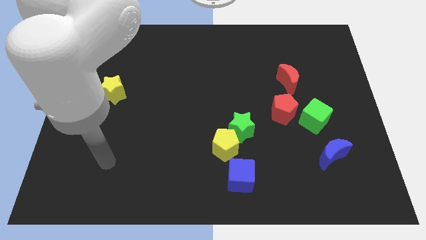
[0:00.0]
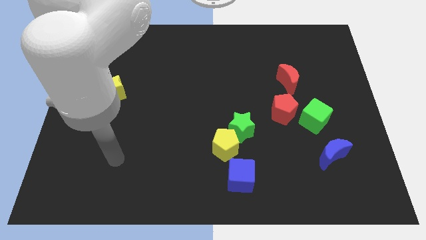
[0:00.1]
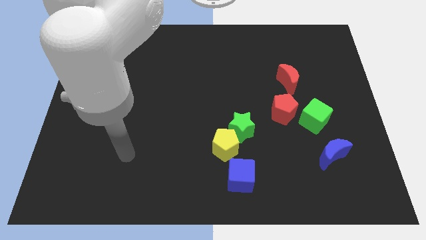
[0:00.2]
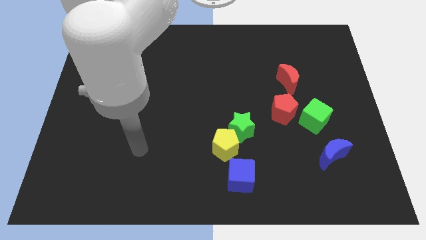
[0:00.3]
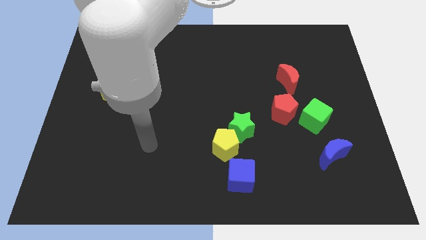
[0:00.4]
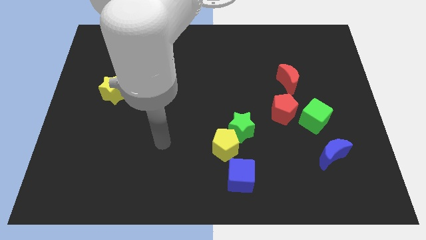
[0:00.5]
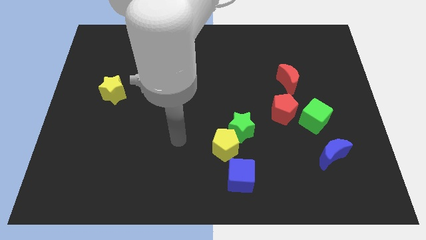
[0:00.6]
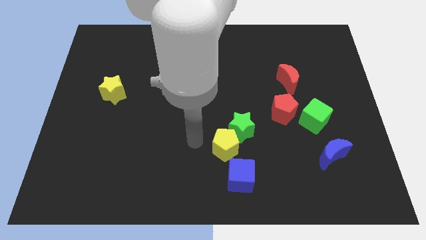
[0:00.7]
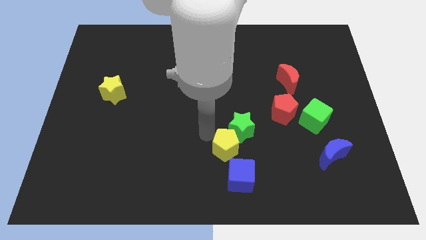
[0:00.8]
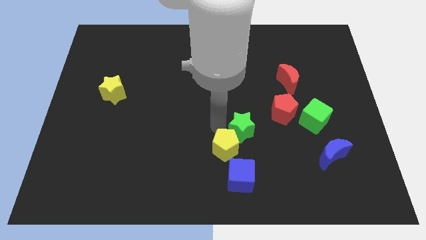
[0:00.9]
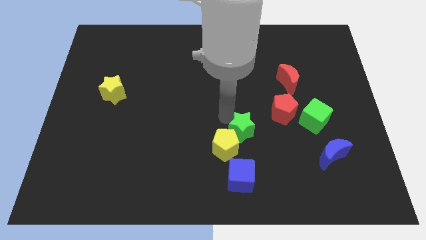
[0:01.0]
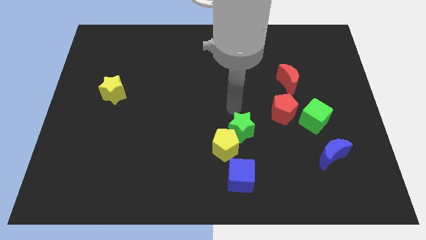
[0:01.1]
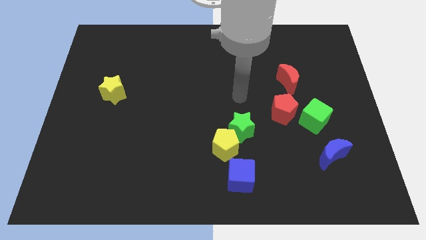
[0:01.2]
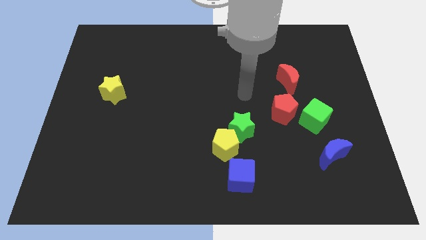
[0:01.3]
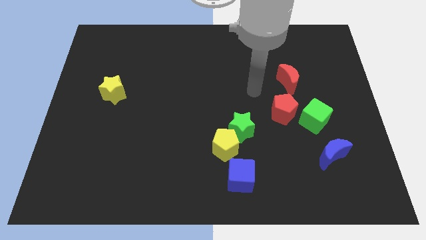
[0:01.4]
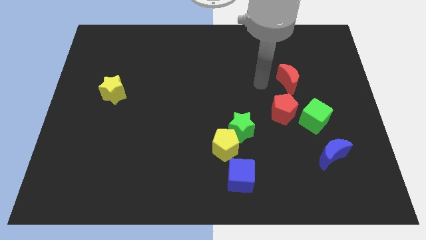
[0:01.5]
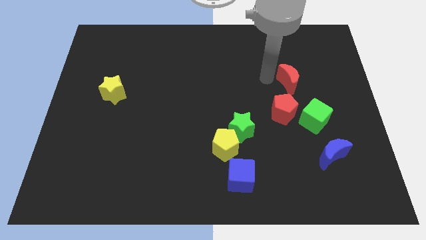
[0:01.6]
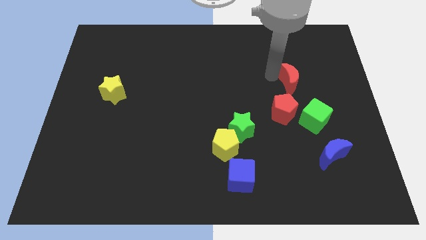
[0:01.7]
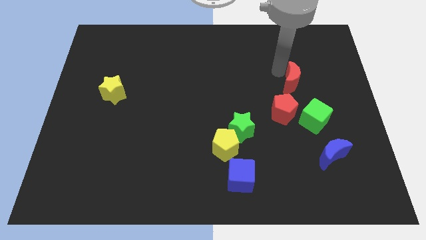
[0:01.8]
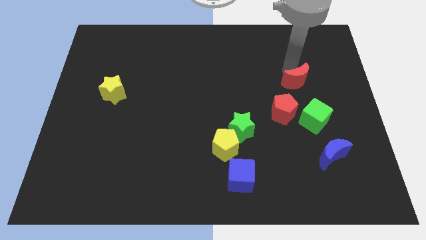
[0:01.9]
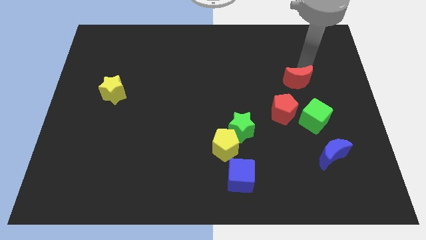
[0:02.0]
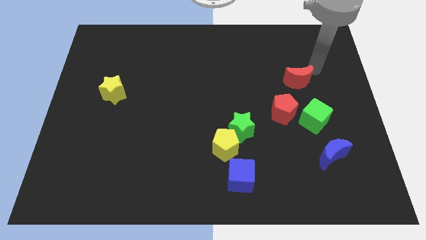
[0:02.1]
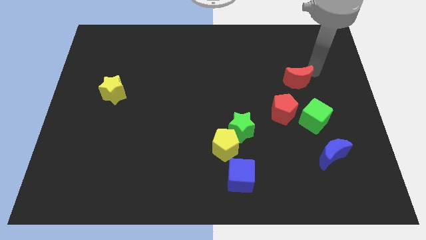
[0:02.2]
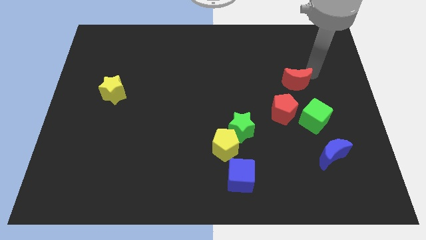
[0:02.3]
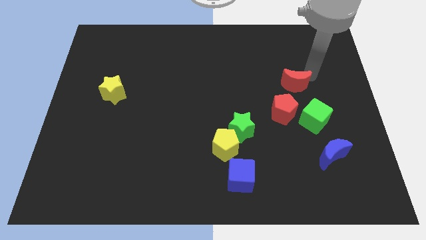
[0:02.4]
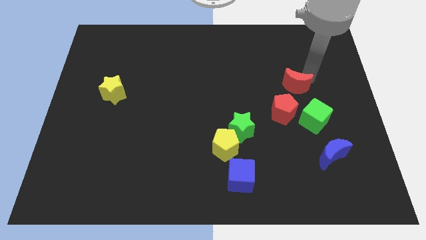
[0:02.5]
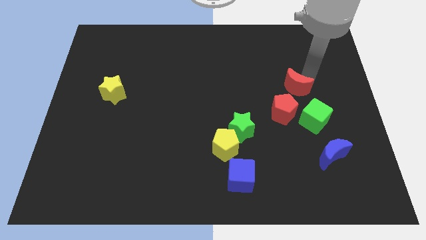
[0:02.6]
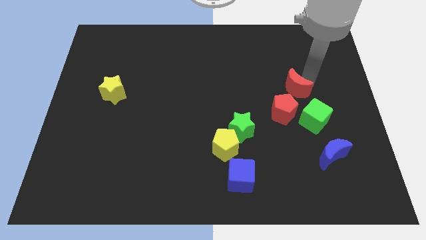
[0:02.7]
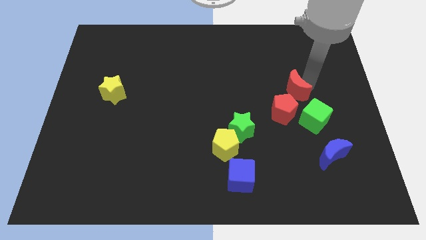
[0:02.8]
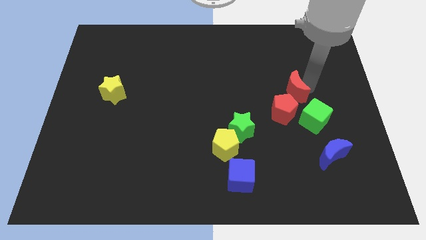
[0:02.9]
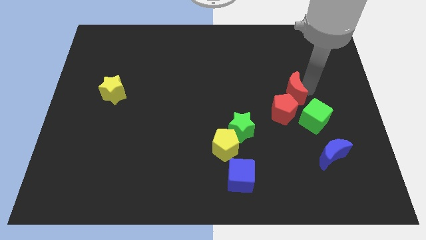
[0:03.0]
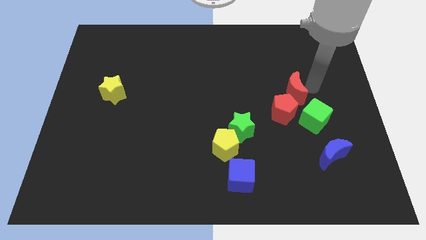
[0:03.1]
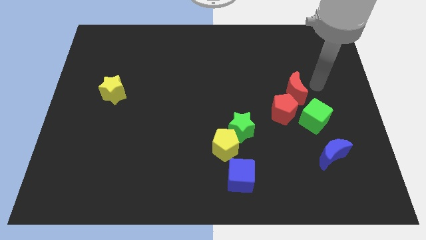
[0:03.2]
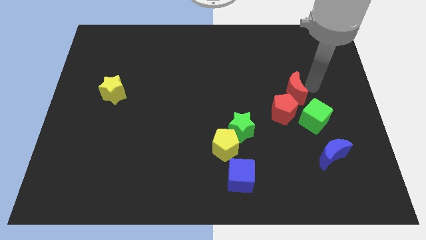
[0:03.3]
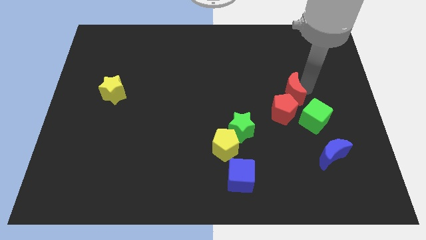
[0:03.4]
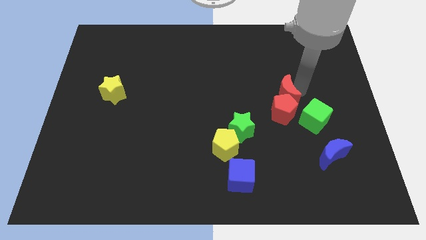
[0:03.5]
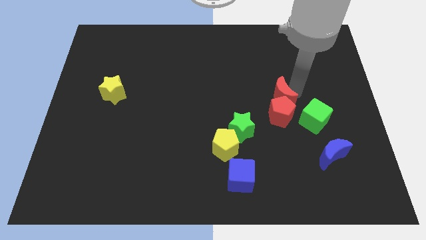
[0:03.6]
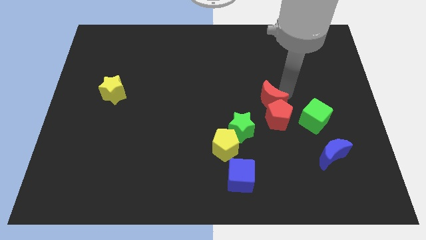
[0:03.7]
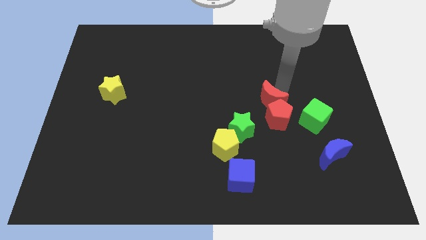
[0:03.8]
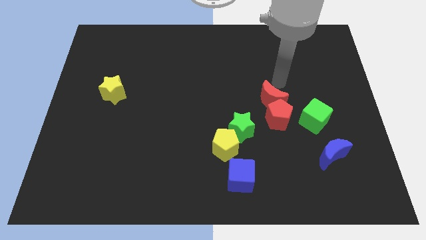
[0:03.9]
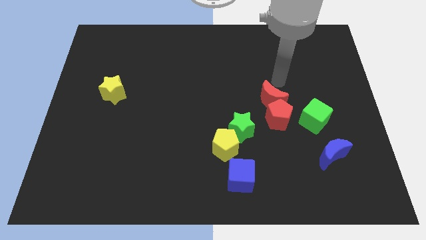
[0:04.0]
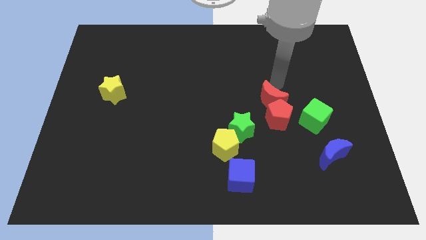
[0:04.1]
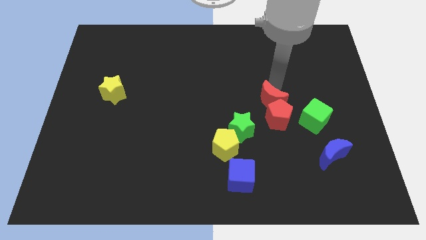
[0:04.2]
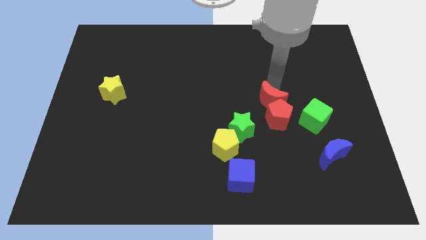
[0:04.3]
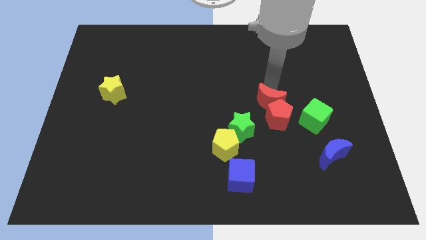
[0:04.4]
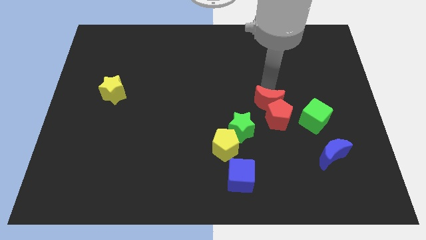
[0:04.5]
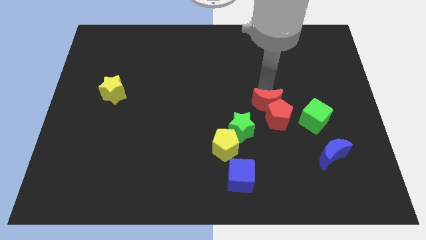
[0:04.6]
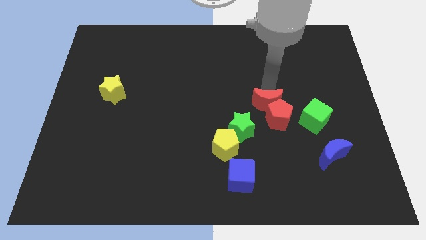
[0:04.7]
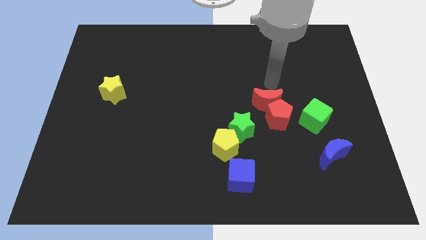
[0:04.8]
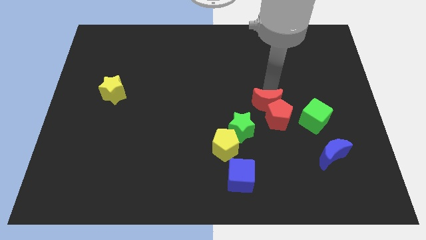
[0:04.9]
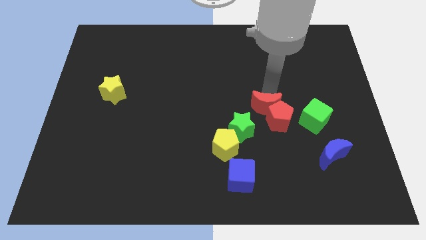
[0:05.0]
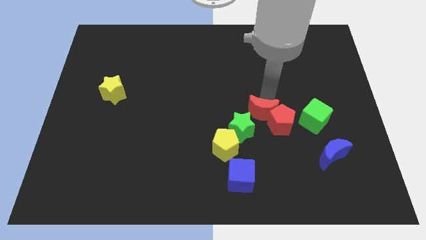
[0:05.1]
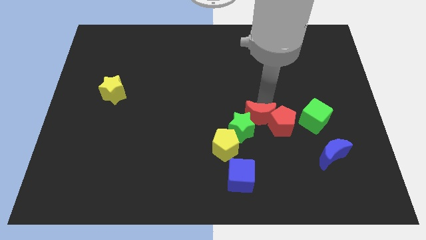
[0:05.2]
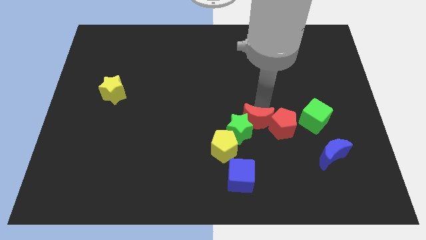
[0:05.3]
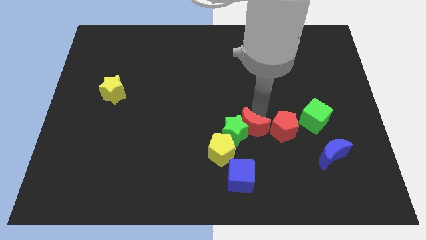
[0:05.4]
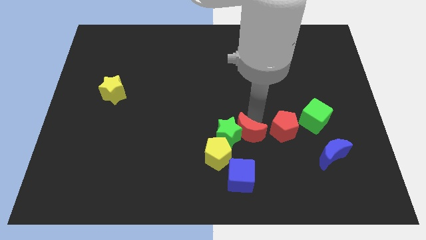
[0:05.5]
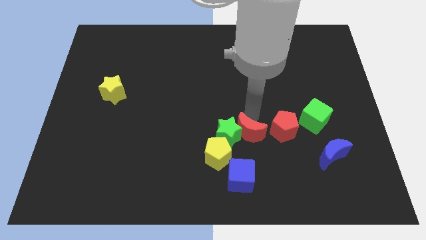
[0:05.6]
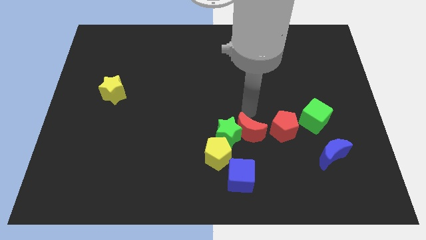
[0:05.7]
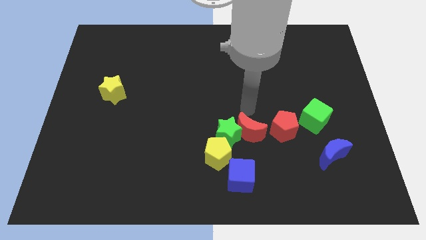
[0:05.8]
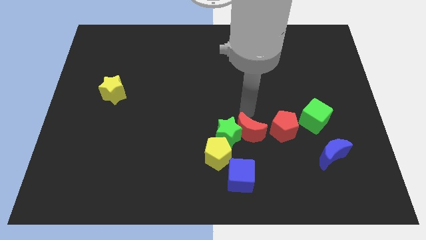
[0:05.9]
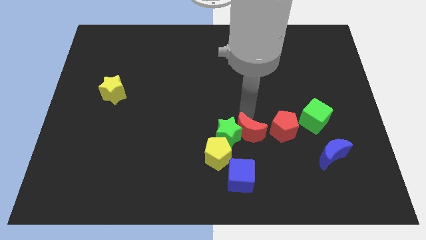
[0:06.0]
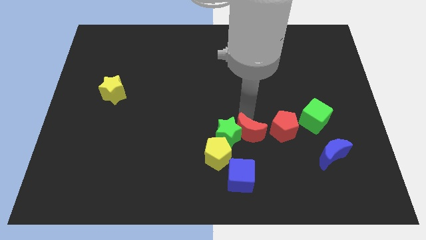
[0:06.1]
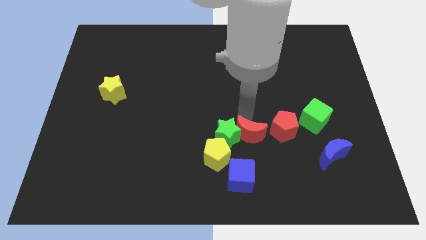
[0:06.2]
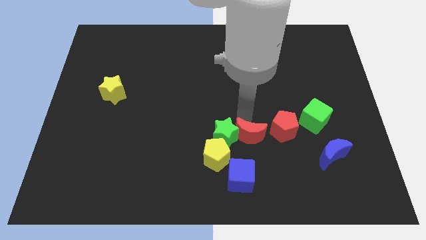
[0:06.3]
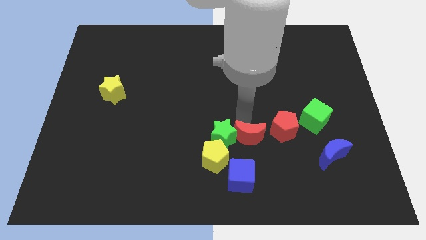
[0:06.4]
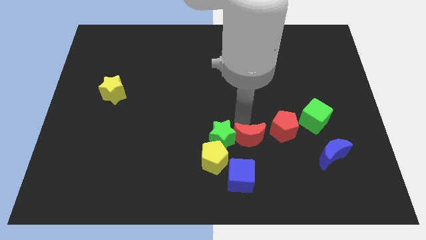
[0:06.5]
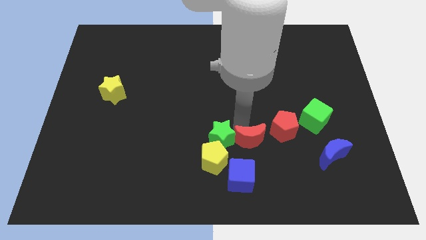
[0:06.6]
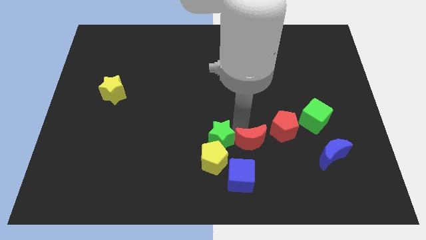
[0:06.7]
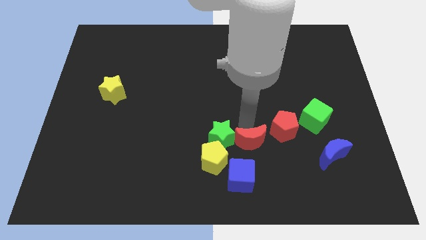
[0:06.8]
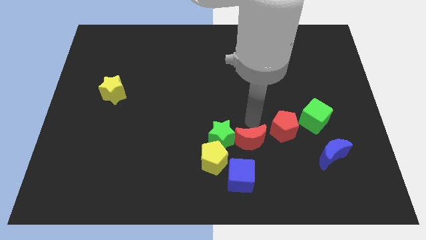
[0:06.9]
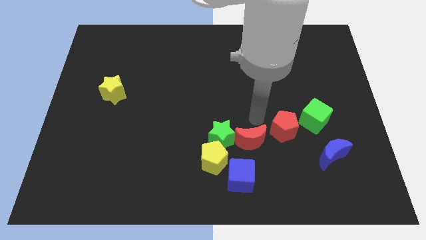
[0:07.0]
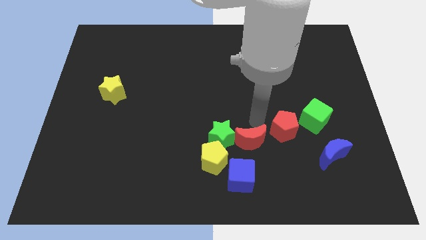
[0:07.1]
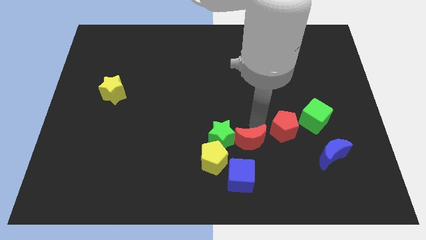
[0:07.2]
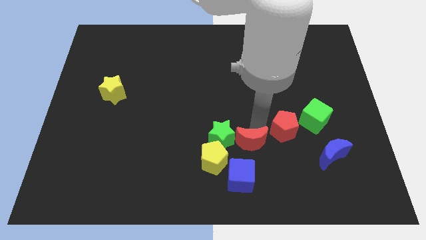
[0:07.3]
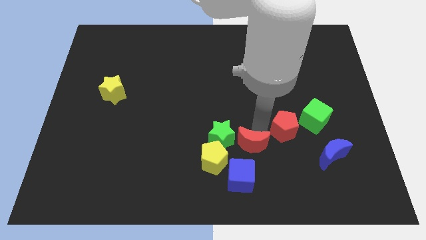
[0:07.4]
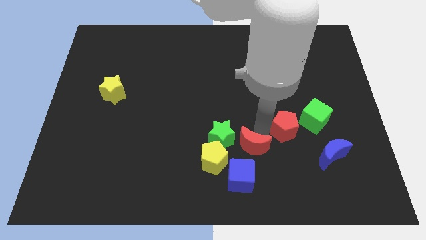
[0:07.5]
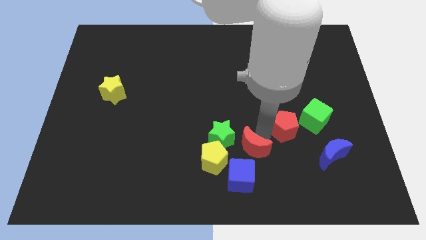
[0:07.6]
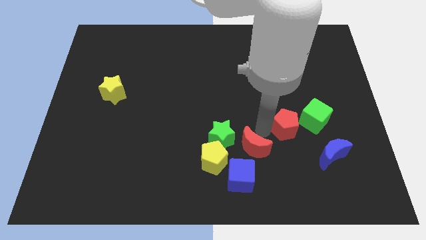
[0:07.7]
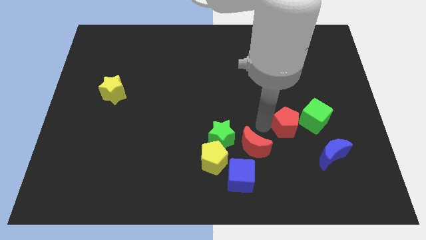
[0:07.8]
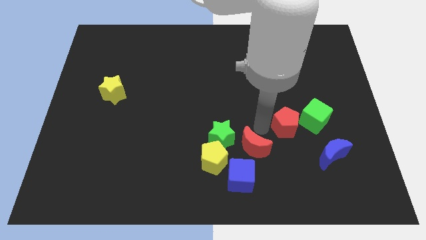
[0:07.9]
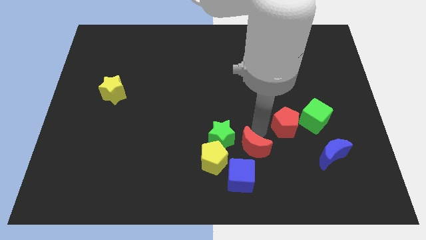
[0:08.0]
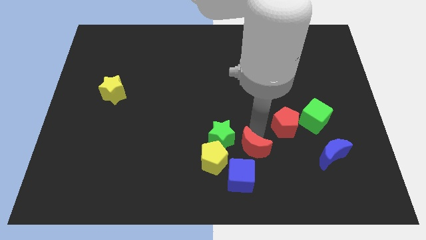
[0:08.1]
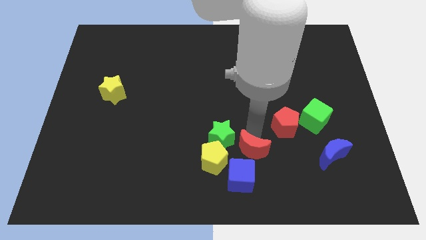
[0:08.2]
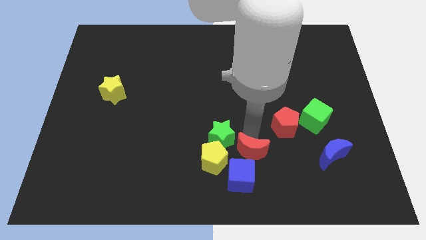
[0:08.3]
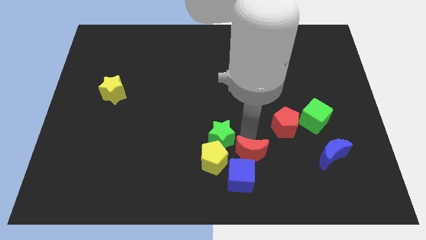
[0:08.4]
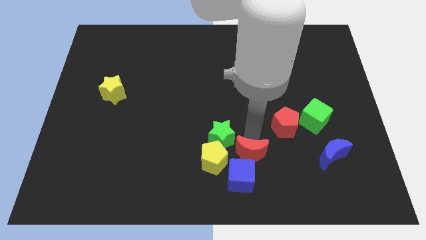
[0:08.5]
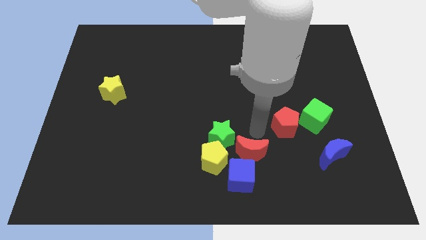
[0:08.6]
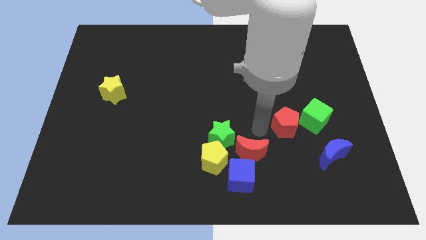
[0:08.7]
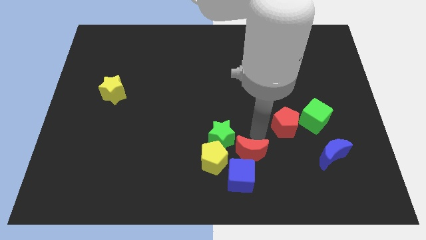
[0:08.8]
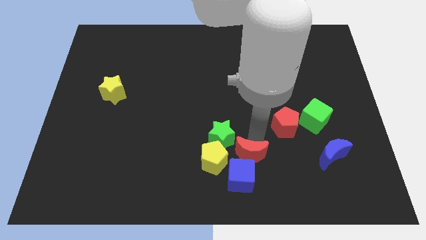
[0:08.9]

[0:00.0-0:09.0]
move the red moon to the blue cube
